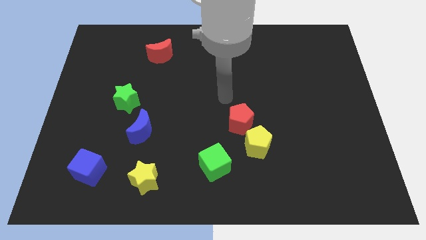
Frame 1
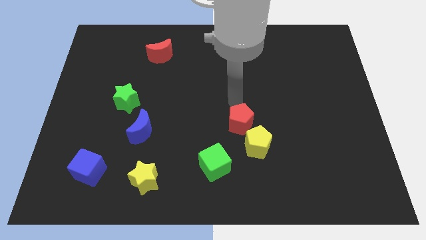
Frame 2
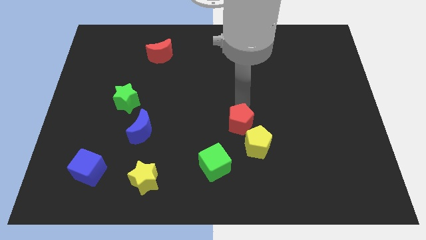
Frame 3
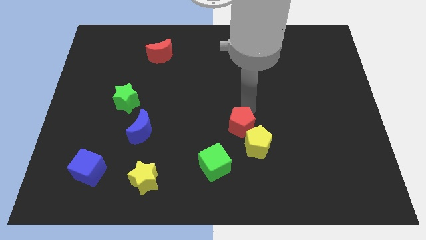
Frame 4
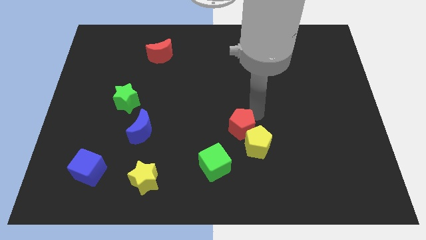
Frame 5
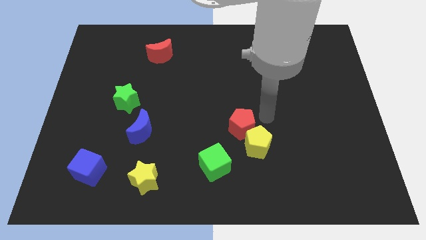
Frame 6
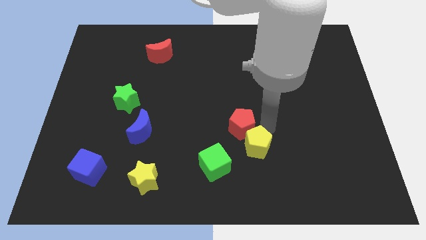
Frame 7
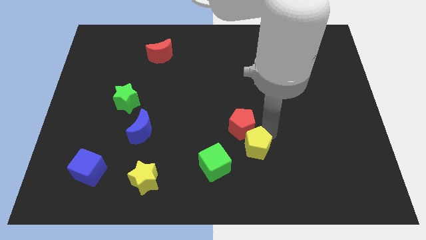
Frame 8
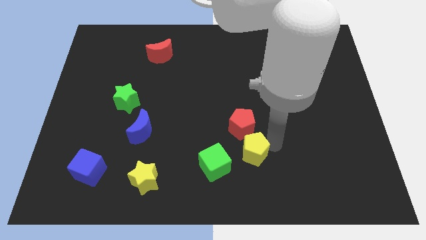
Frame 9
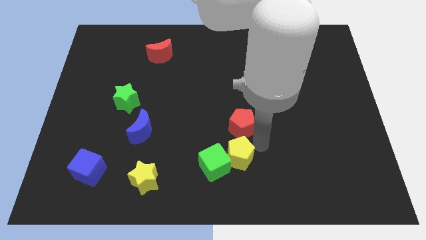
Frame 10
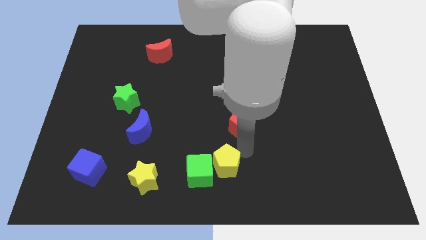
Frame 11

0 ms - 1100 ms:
pull the red pentagon apart from the yellow pentagon

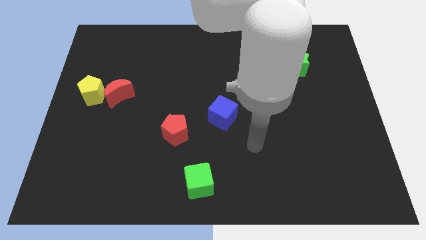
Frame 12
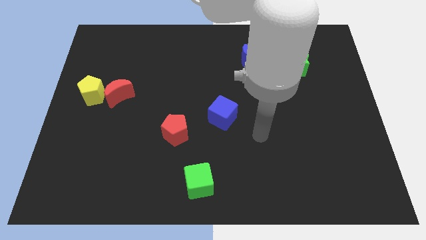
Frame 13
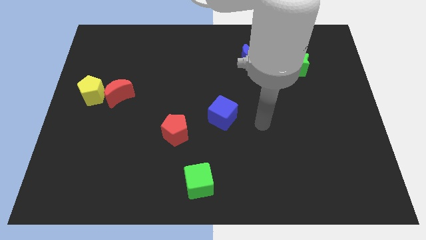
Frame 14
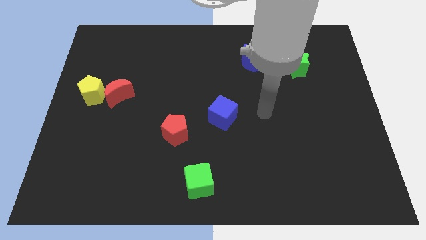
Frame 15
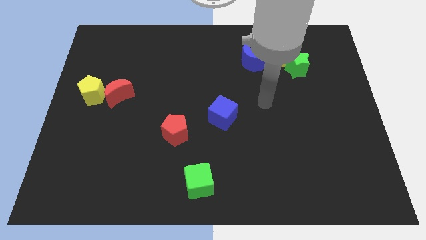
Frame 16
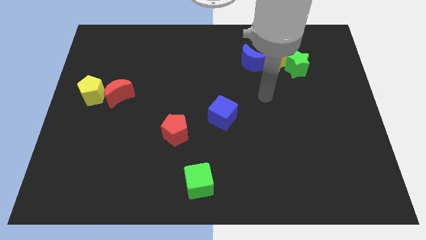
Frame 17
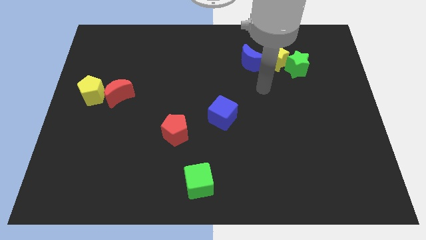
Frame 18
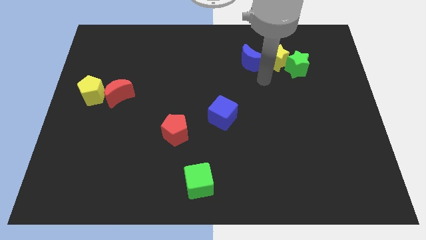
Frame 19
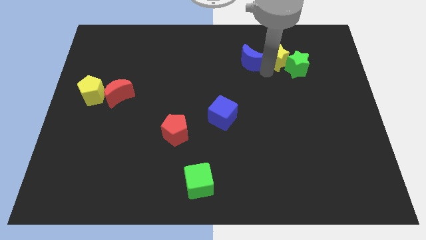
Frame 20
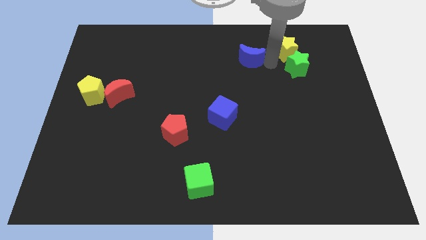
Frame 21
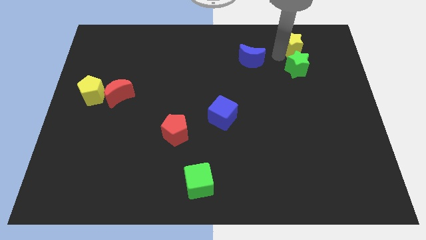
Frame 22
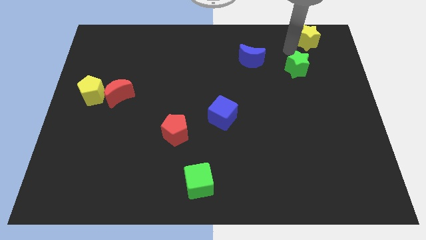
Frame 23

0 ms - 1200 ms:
separate the green star from the yellow star

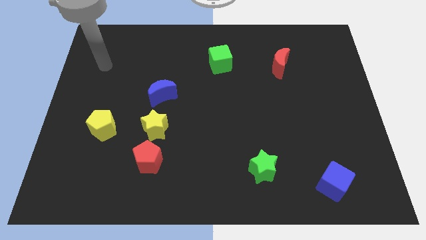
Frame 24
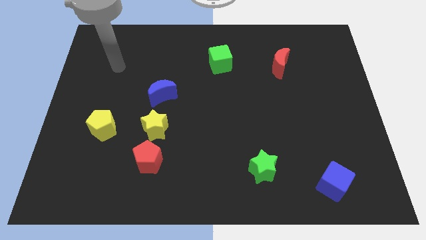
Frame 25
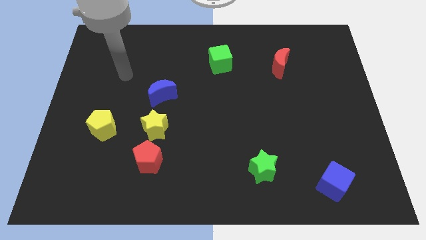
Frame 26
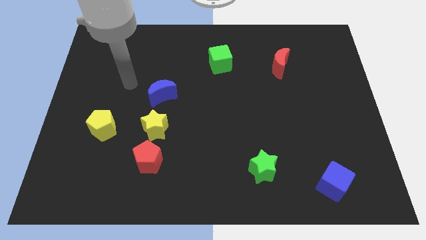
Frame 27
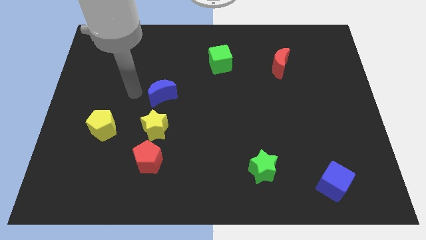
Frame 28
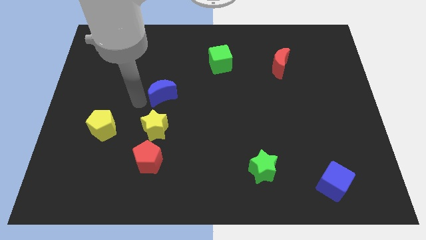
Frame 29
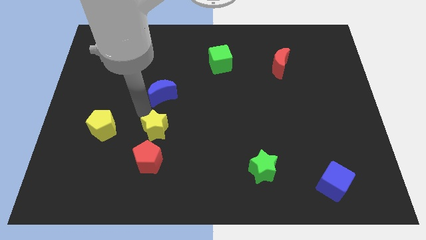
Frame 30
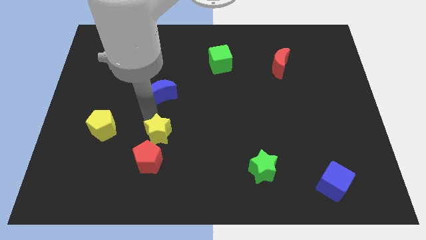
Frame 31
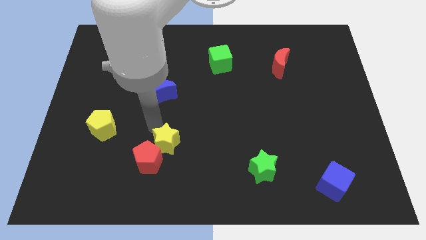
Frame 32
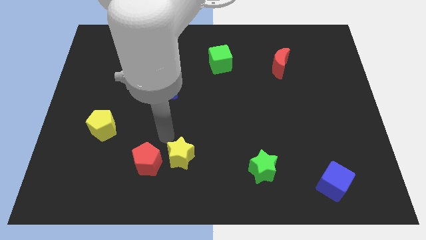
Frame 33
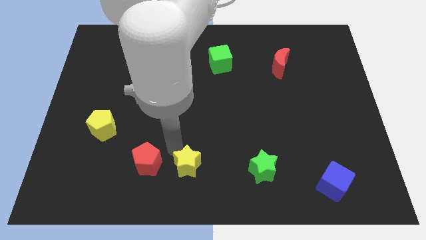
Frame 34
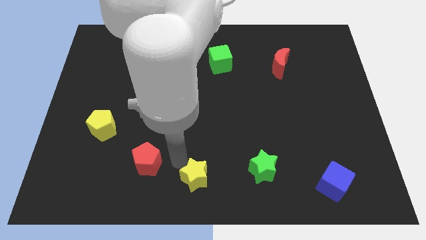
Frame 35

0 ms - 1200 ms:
pull the red pentagon apart from the yellow star

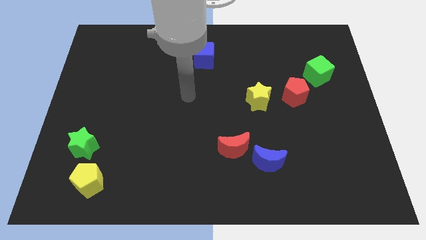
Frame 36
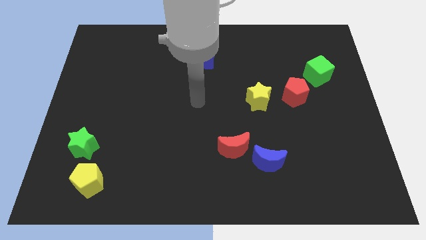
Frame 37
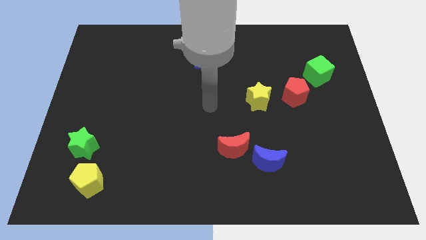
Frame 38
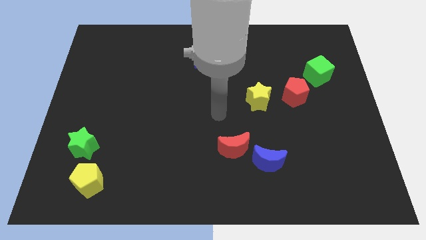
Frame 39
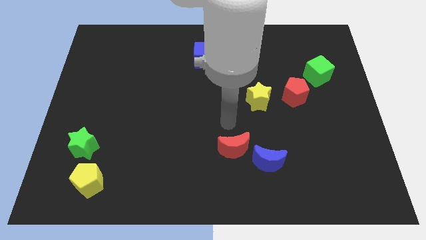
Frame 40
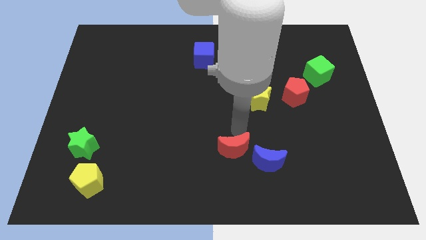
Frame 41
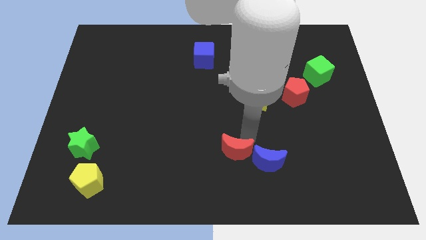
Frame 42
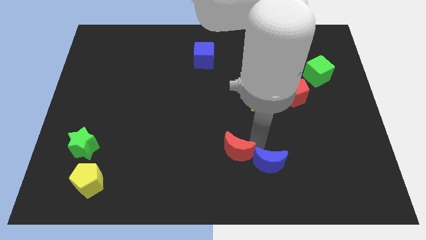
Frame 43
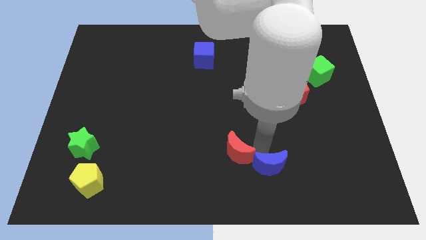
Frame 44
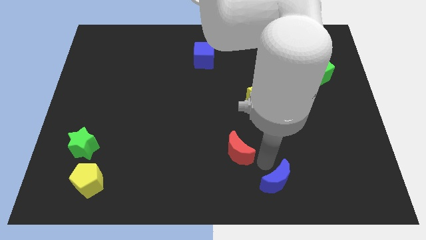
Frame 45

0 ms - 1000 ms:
separate the red moon from the blue moon

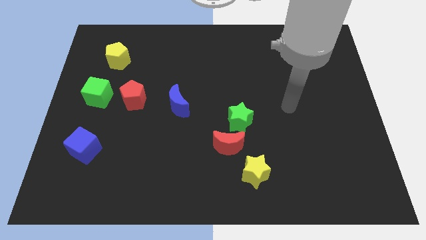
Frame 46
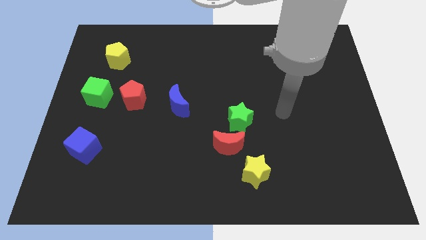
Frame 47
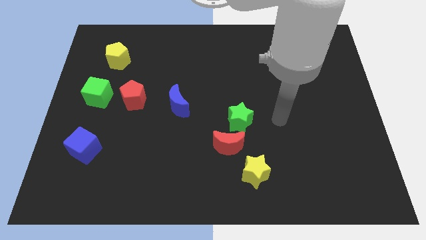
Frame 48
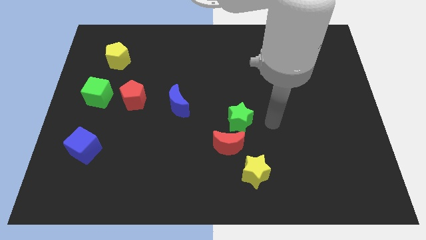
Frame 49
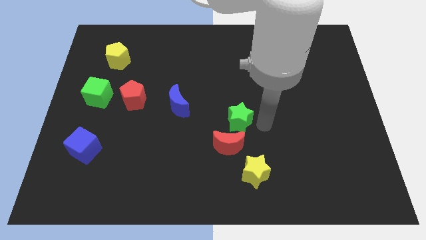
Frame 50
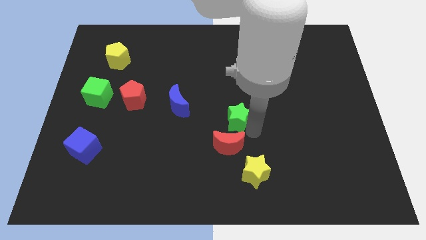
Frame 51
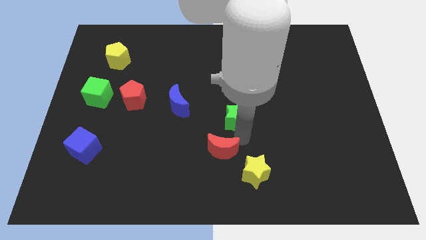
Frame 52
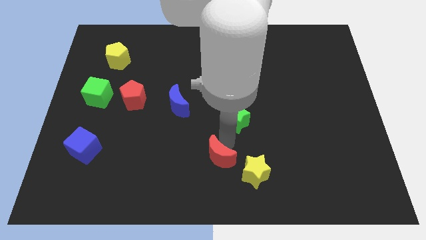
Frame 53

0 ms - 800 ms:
separate the green star from the red moon

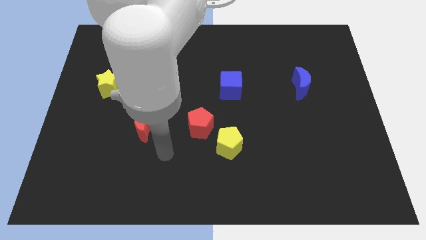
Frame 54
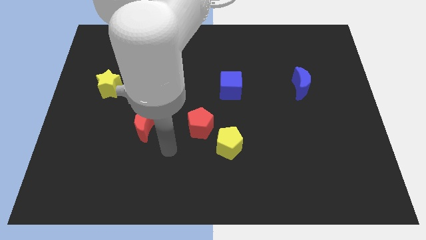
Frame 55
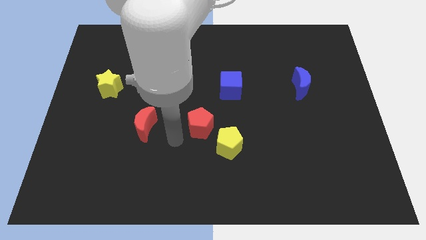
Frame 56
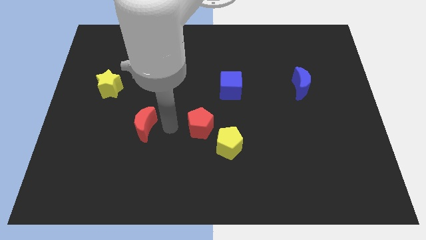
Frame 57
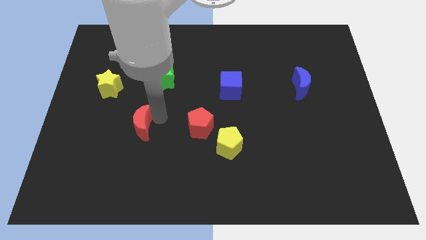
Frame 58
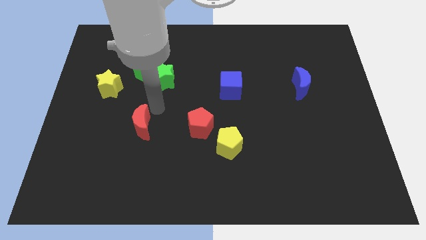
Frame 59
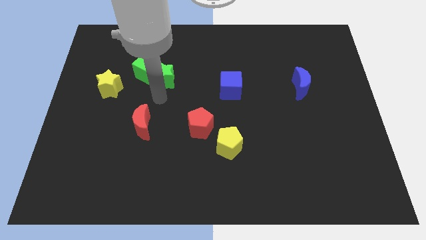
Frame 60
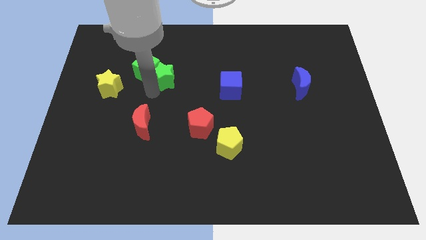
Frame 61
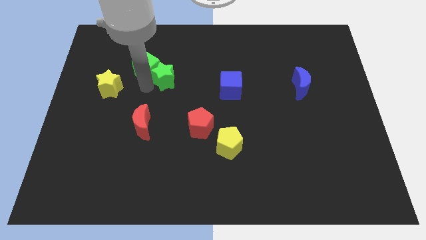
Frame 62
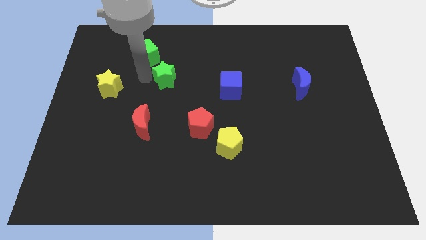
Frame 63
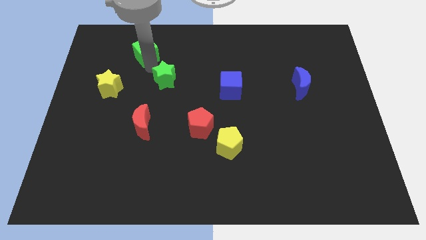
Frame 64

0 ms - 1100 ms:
move the green star away from the green cube

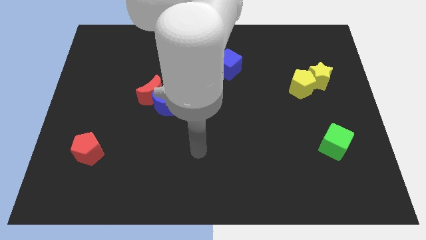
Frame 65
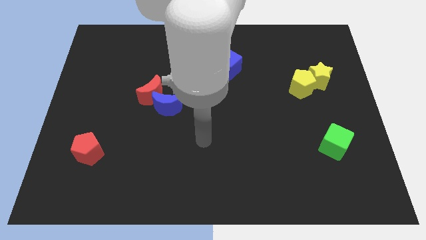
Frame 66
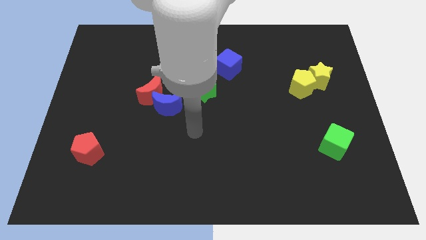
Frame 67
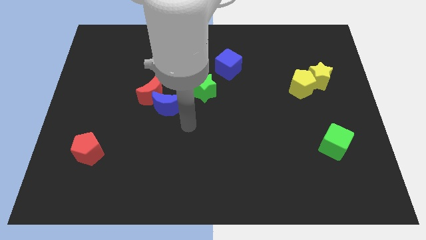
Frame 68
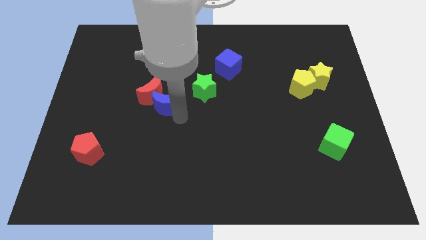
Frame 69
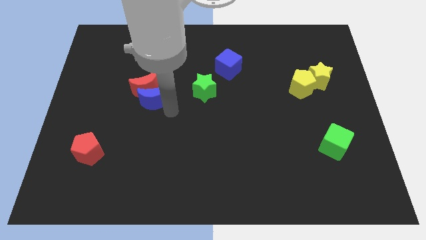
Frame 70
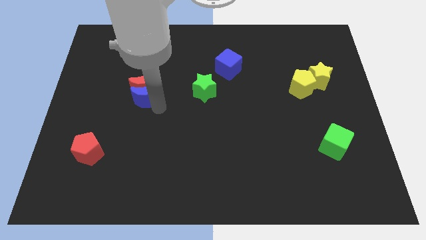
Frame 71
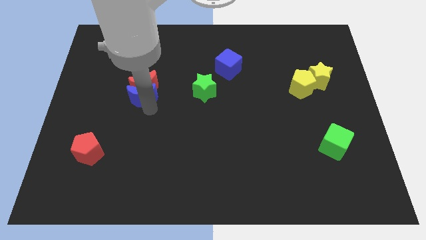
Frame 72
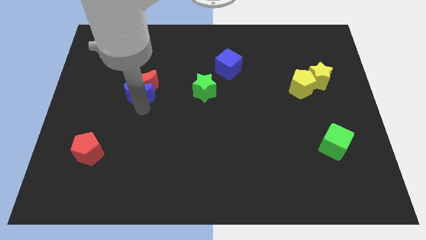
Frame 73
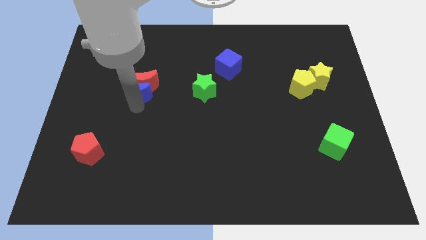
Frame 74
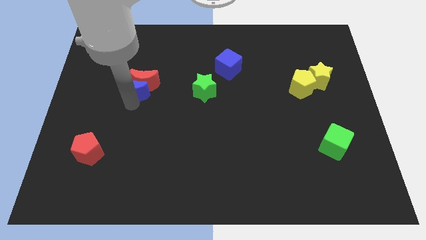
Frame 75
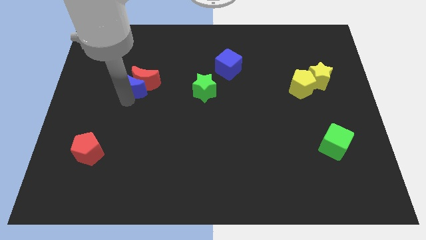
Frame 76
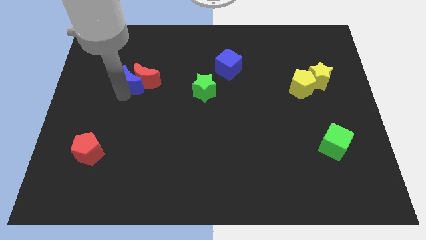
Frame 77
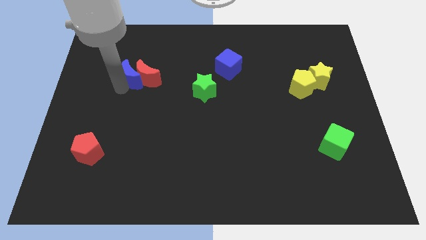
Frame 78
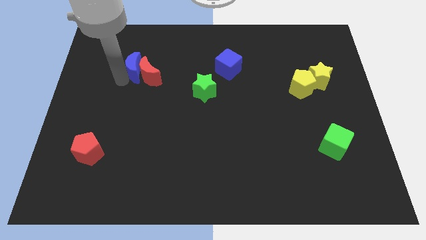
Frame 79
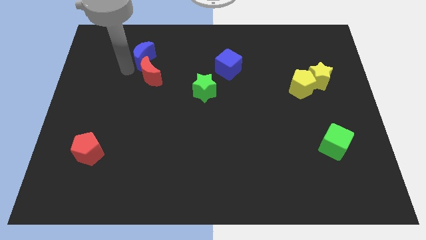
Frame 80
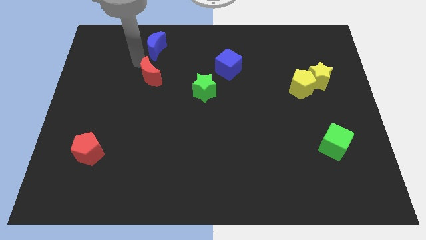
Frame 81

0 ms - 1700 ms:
move the red moon away from the blue moon

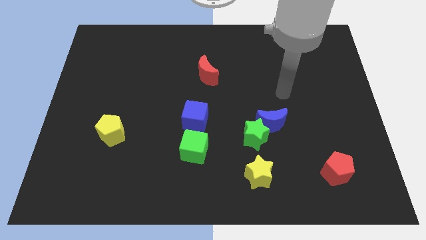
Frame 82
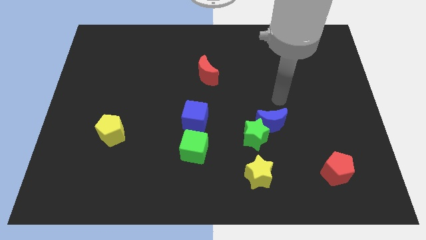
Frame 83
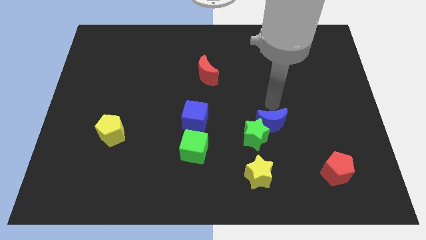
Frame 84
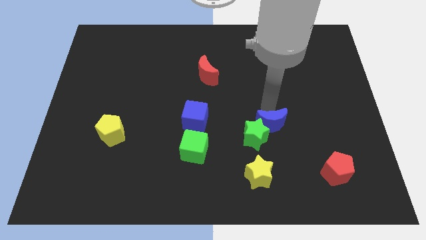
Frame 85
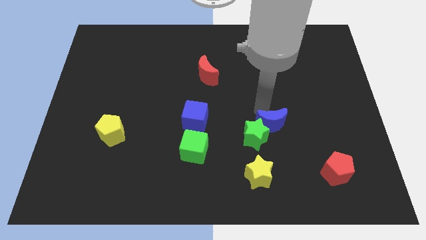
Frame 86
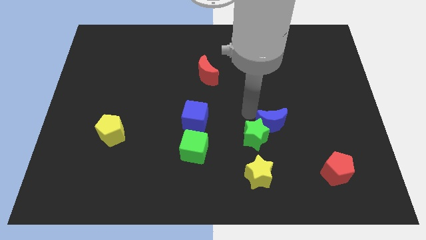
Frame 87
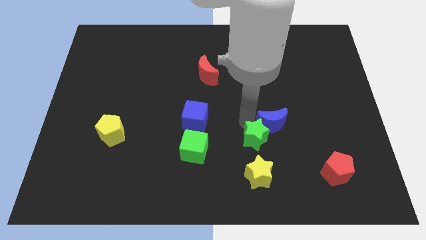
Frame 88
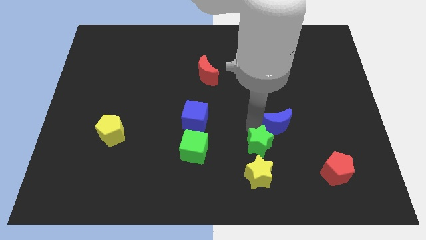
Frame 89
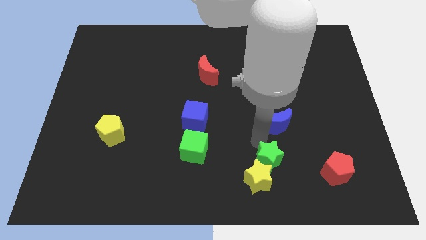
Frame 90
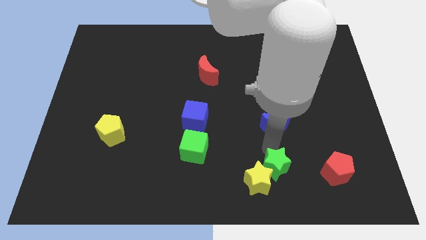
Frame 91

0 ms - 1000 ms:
pull the blue moon apart from the green star
